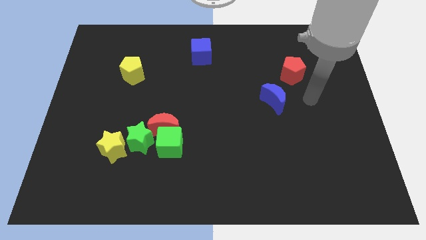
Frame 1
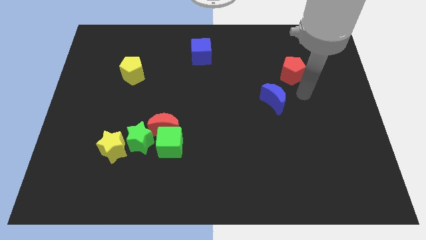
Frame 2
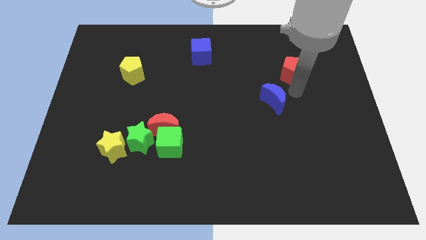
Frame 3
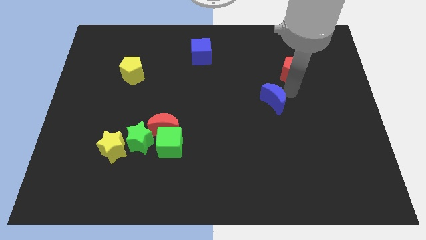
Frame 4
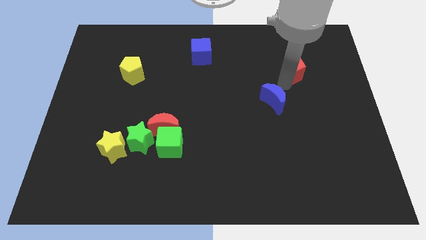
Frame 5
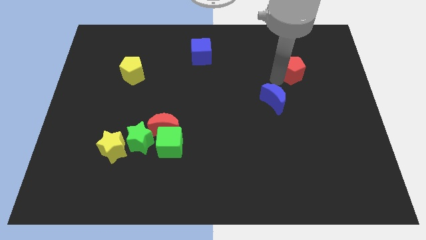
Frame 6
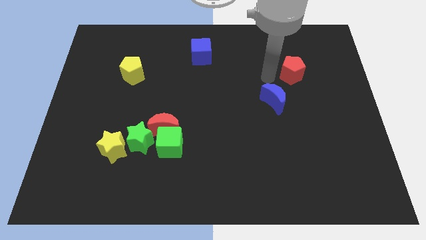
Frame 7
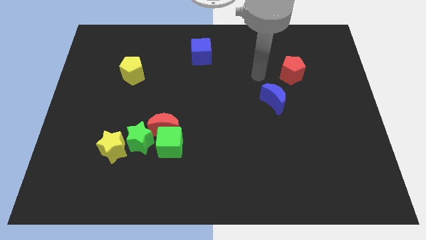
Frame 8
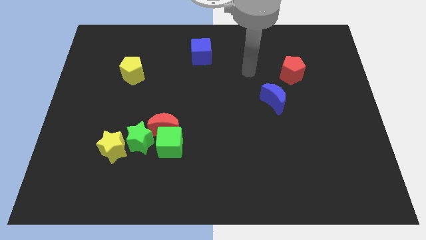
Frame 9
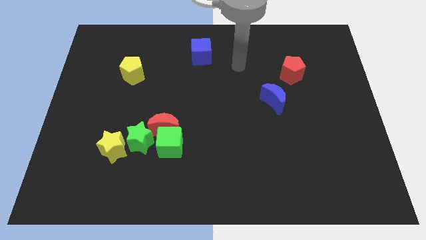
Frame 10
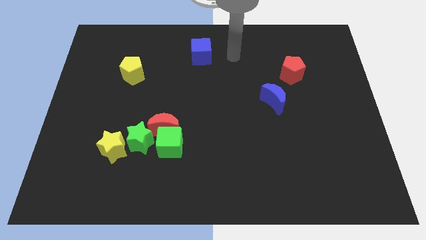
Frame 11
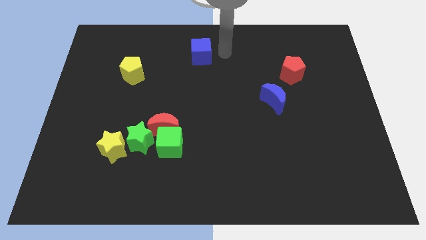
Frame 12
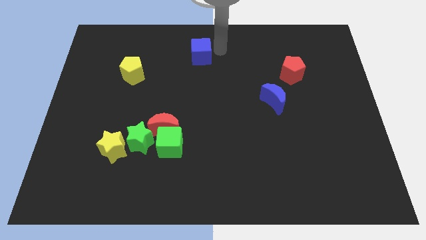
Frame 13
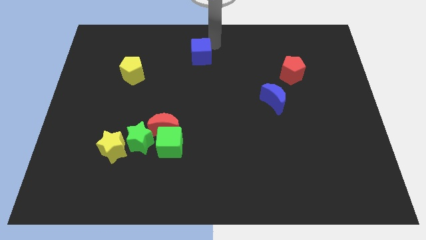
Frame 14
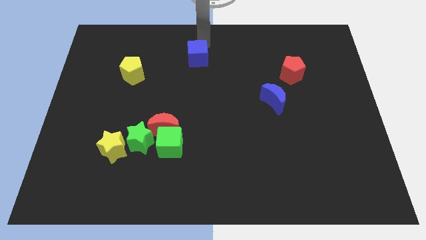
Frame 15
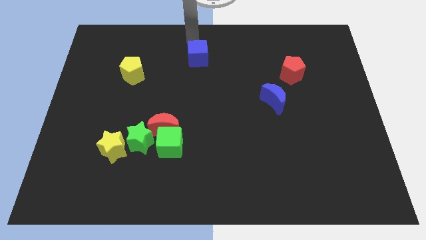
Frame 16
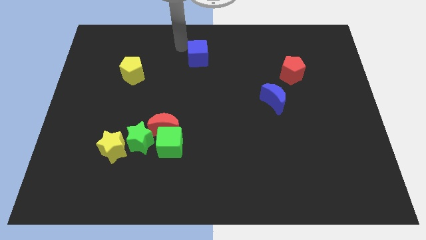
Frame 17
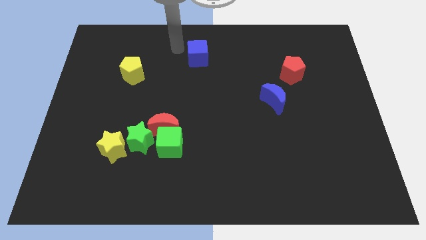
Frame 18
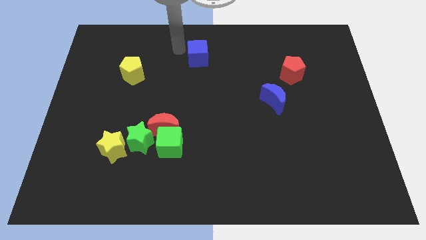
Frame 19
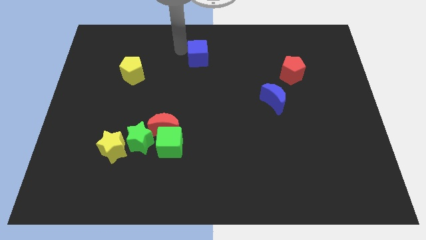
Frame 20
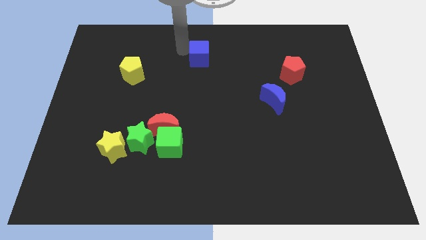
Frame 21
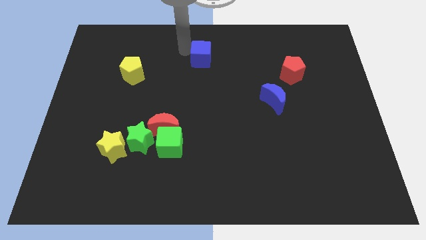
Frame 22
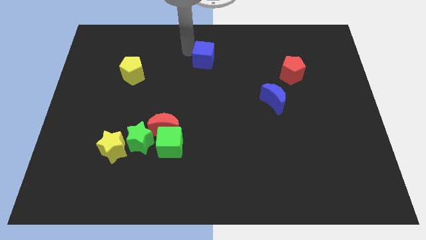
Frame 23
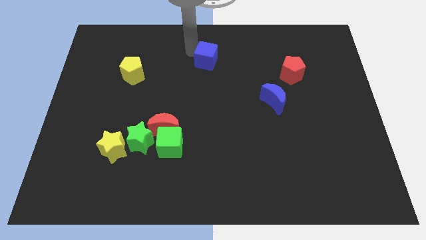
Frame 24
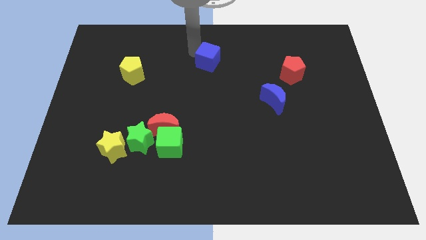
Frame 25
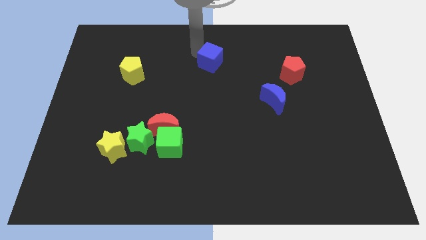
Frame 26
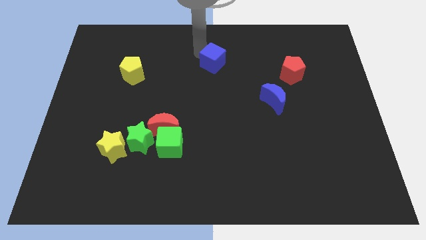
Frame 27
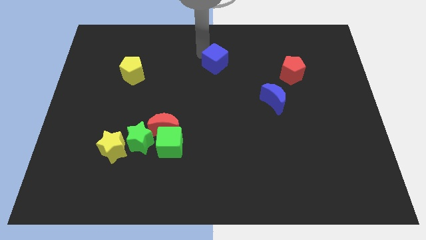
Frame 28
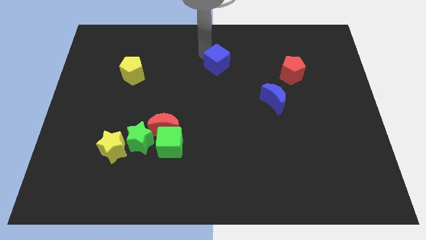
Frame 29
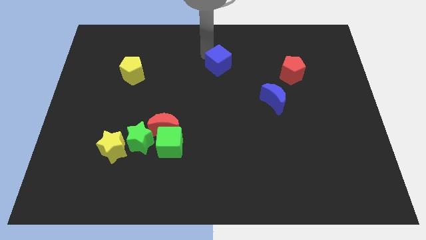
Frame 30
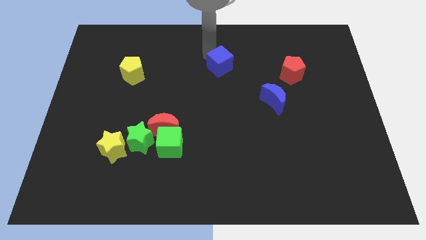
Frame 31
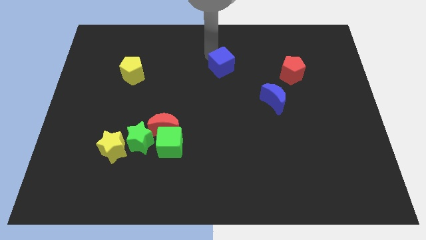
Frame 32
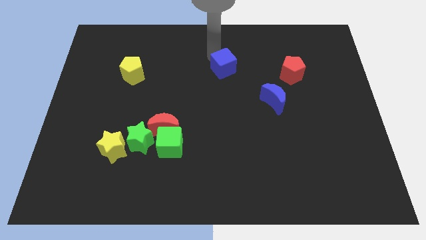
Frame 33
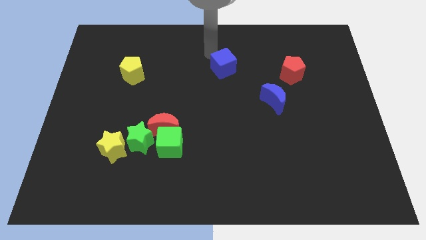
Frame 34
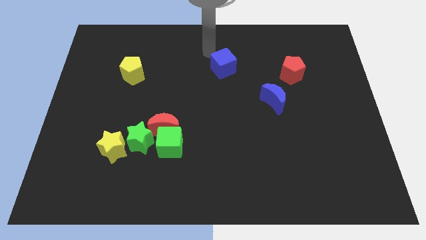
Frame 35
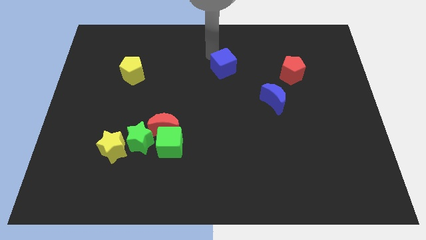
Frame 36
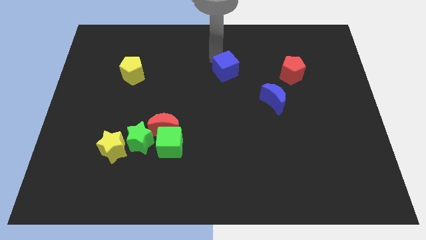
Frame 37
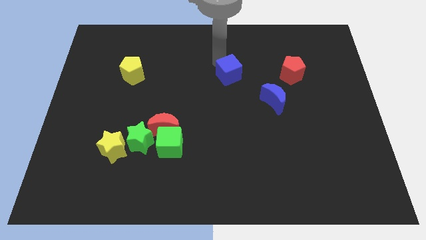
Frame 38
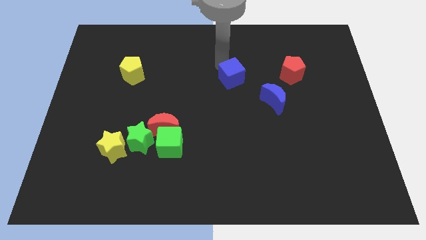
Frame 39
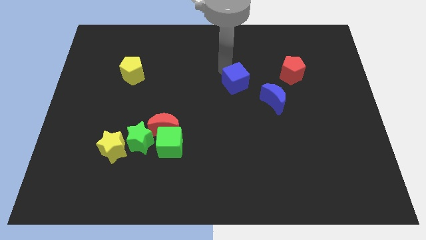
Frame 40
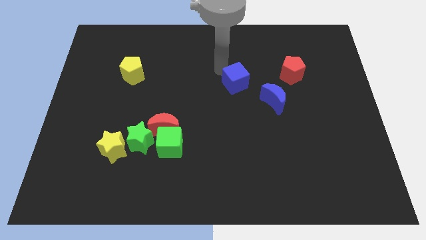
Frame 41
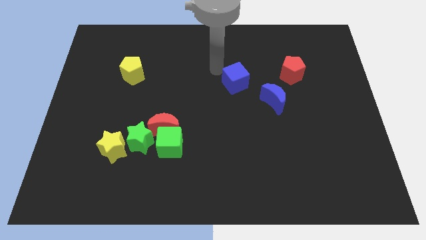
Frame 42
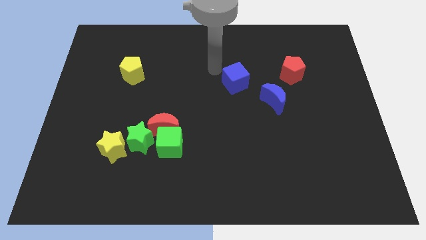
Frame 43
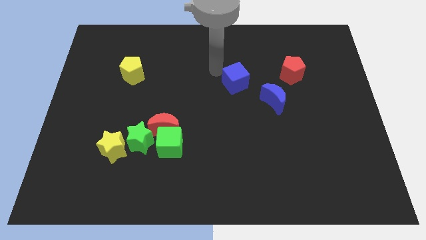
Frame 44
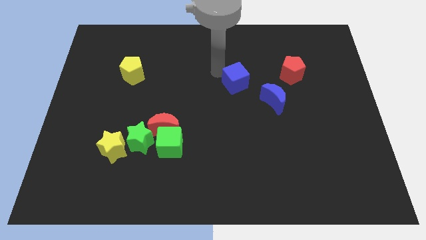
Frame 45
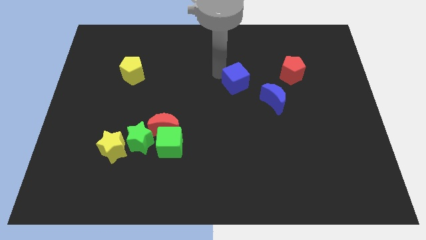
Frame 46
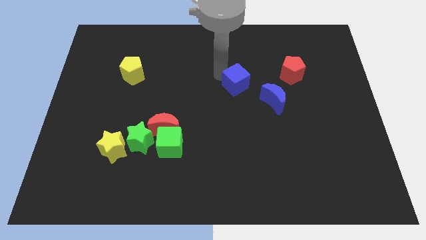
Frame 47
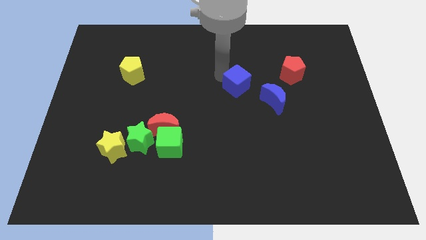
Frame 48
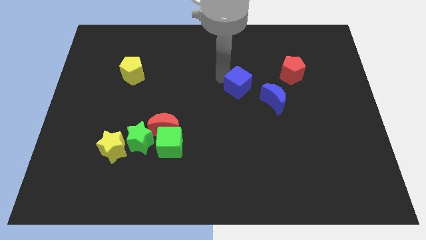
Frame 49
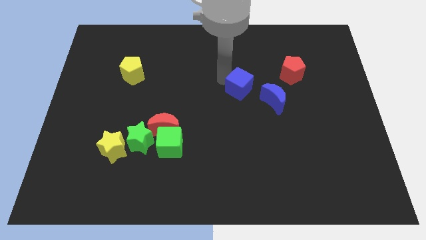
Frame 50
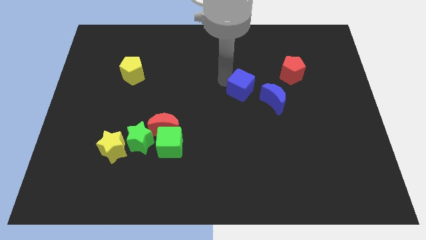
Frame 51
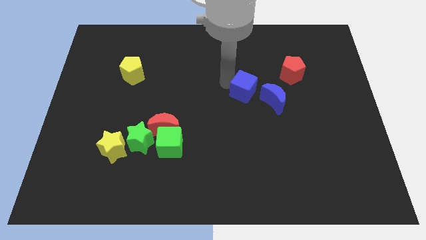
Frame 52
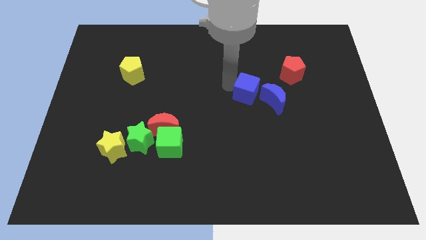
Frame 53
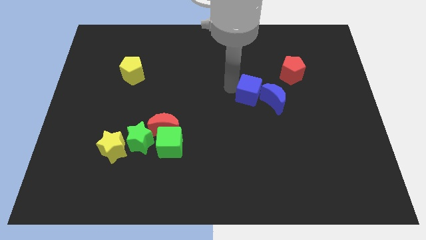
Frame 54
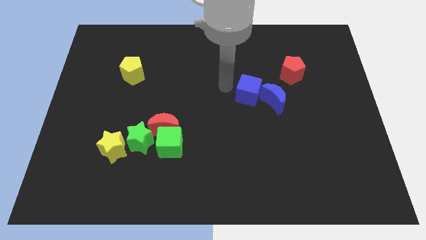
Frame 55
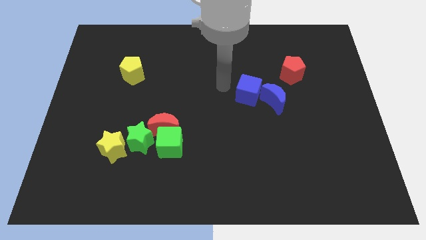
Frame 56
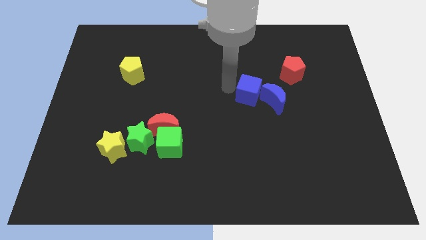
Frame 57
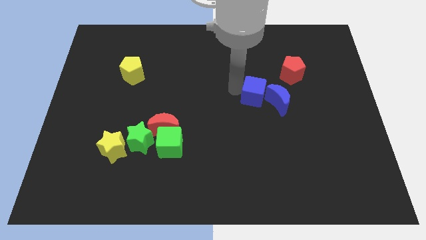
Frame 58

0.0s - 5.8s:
slide the blue cube next to the blue moon

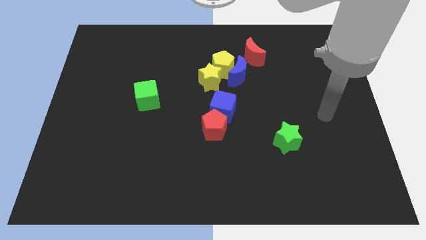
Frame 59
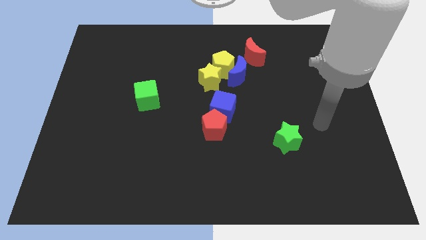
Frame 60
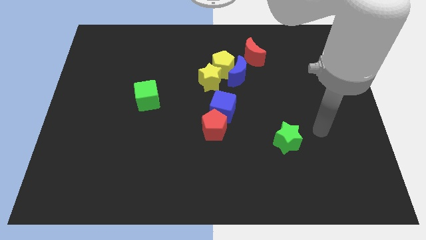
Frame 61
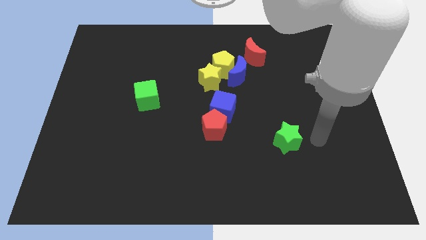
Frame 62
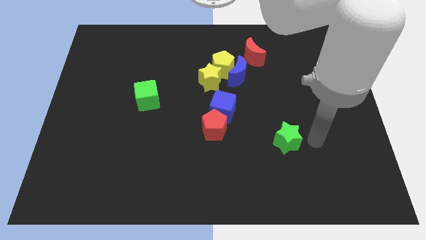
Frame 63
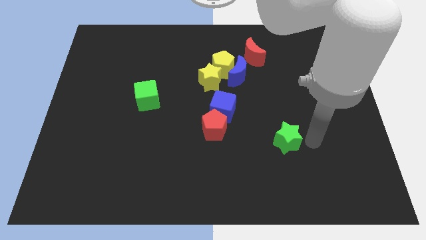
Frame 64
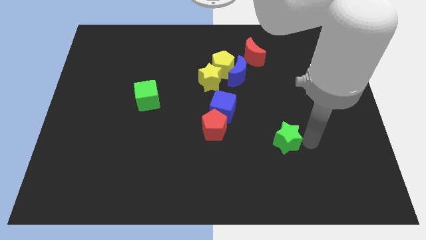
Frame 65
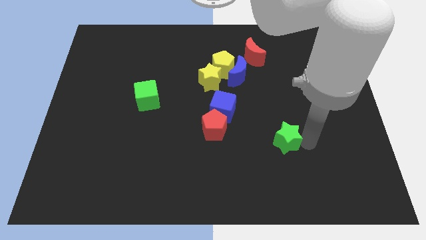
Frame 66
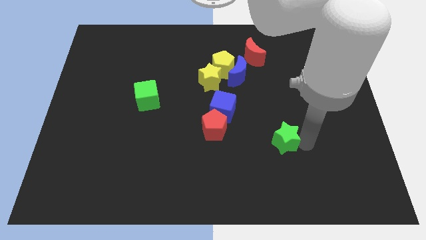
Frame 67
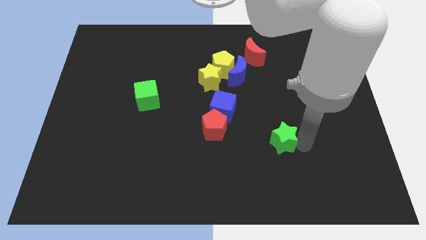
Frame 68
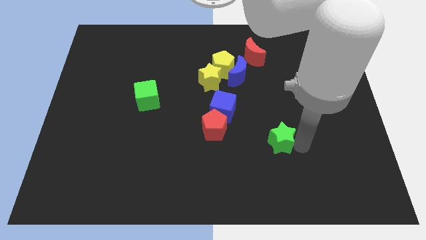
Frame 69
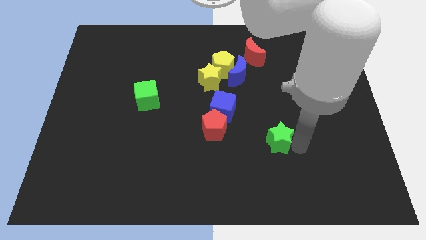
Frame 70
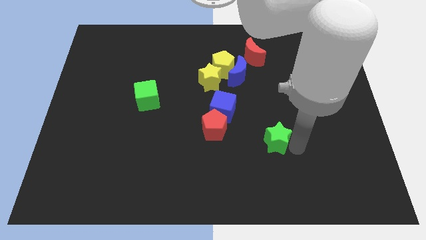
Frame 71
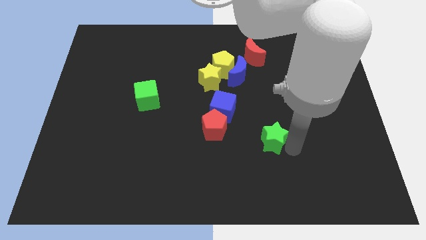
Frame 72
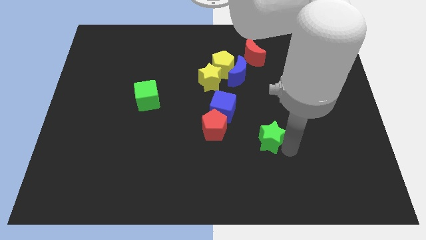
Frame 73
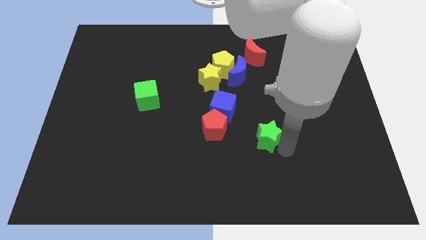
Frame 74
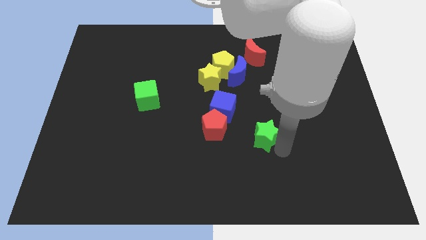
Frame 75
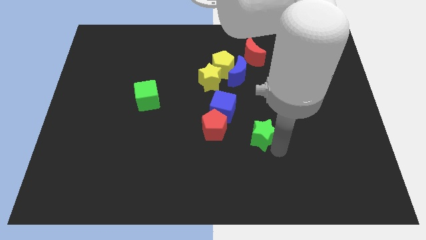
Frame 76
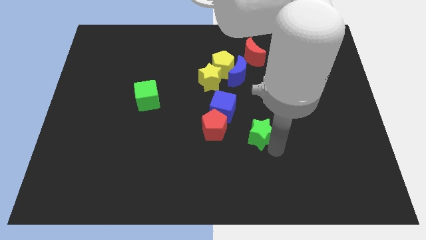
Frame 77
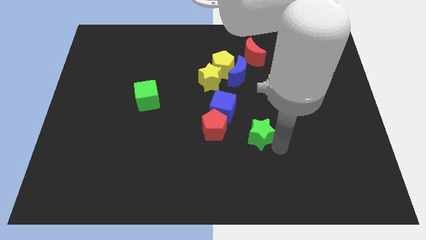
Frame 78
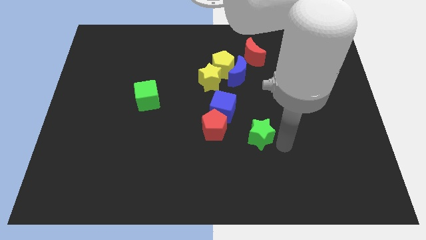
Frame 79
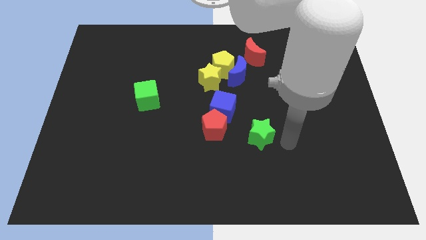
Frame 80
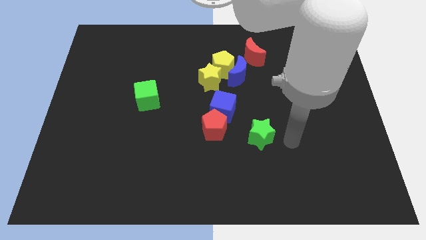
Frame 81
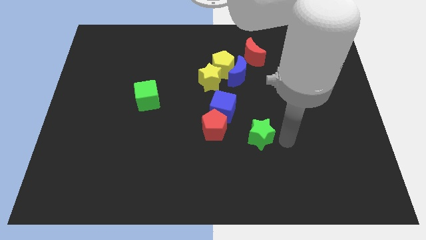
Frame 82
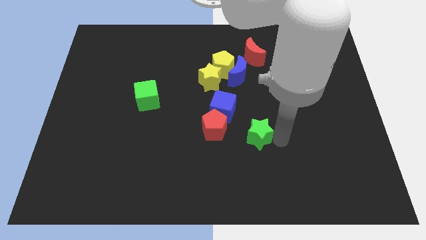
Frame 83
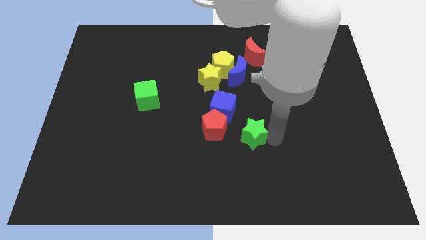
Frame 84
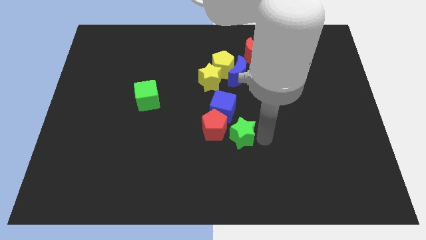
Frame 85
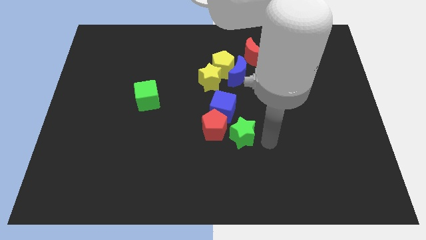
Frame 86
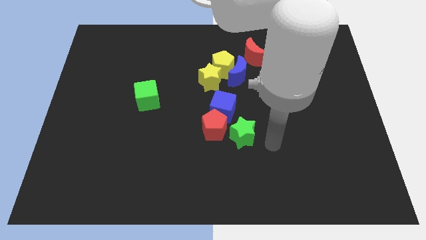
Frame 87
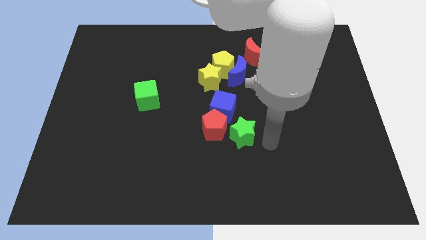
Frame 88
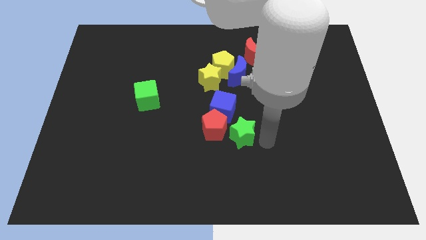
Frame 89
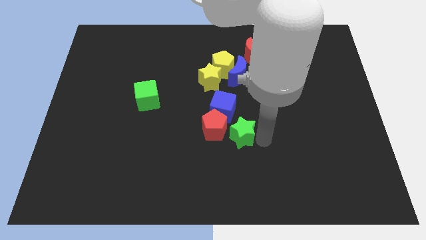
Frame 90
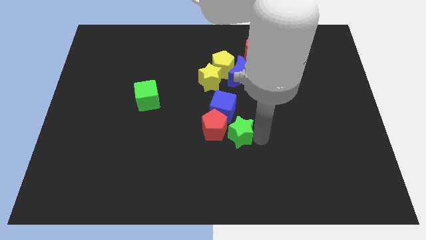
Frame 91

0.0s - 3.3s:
push the green star close to the red pentagon
